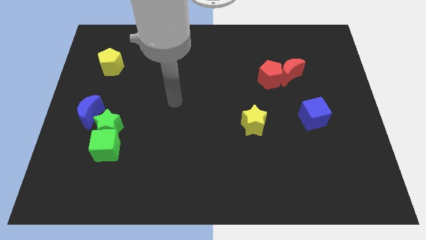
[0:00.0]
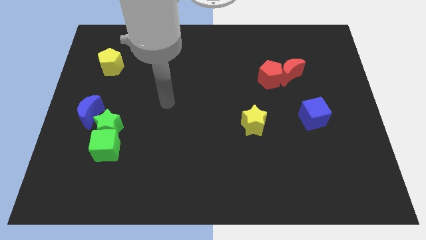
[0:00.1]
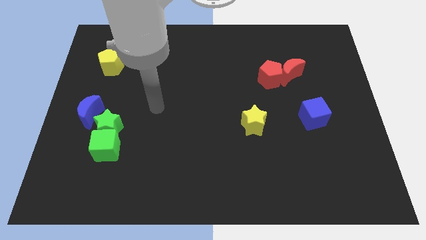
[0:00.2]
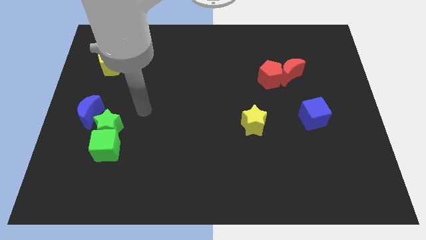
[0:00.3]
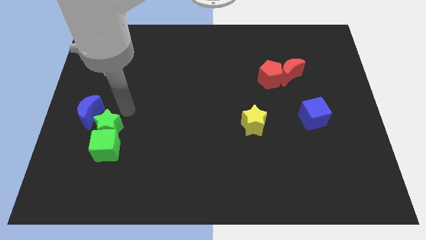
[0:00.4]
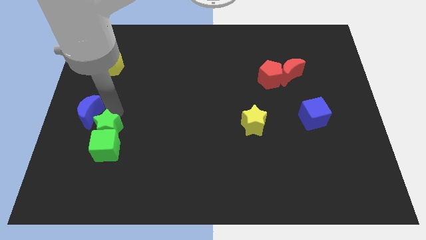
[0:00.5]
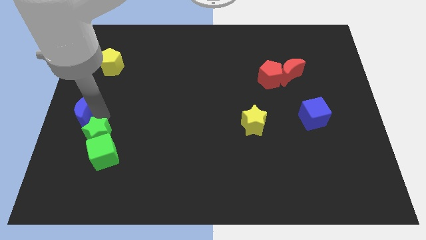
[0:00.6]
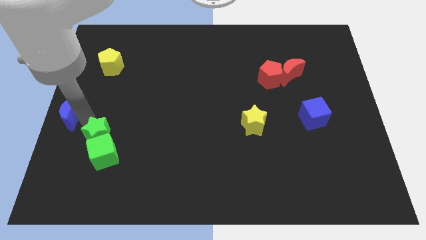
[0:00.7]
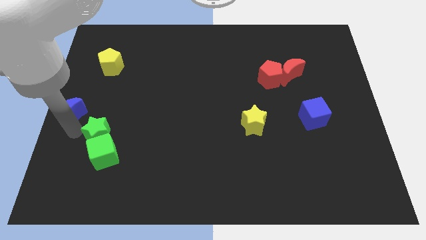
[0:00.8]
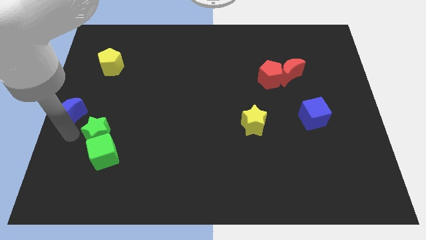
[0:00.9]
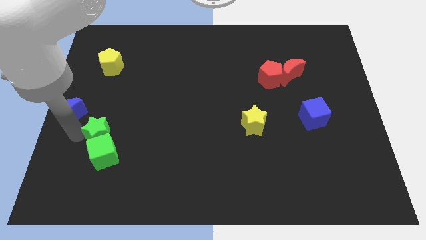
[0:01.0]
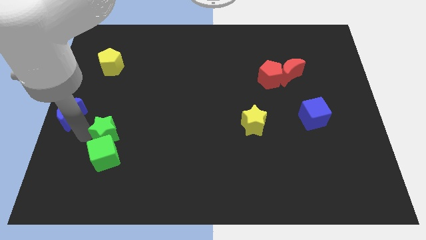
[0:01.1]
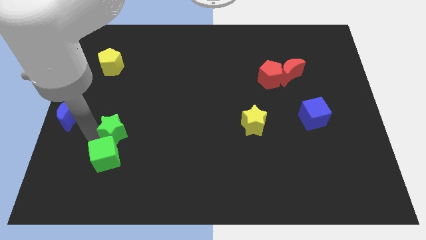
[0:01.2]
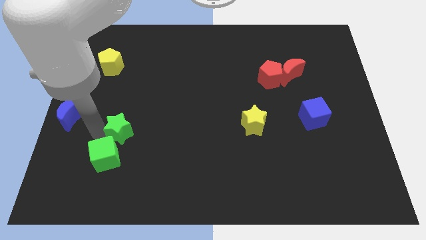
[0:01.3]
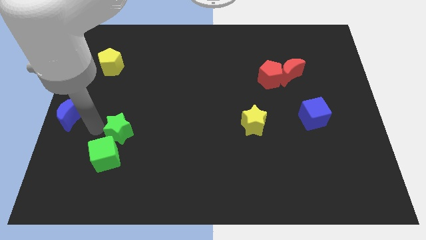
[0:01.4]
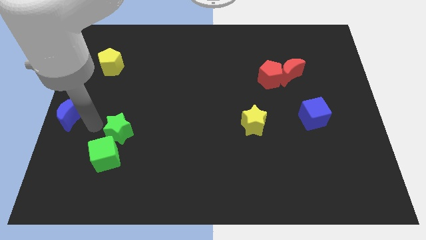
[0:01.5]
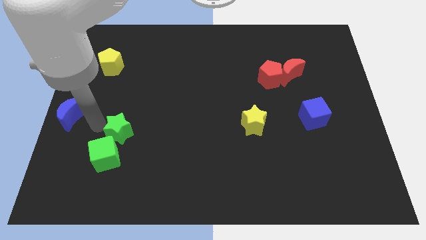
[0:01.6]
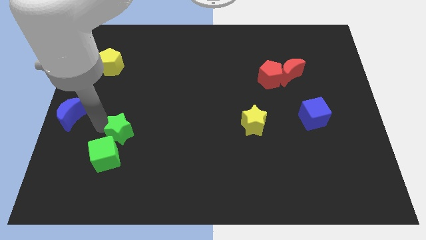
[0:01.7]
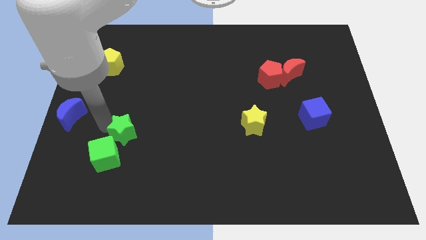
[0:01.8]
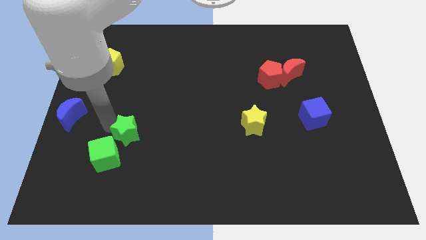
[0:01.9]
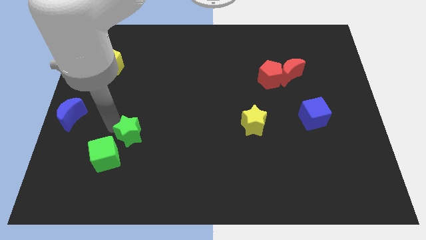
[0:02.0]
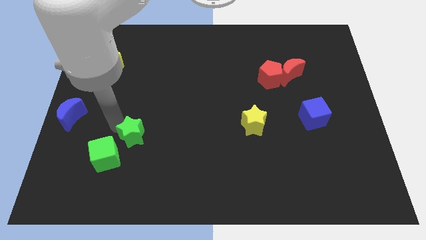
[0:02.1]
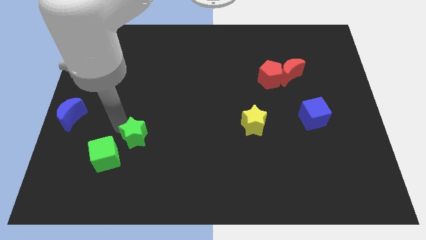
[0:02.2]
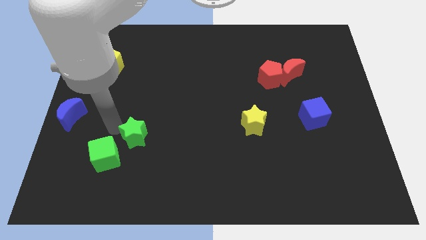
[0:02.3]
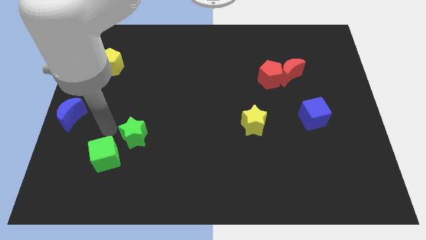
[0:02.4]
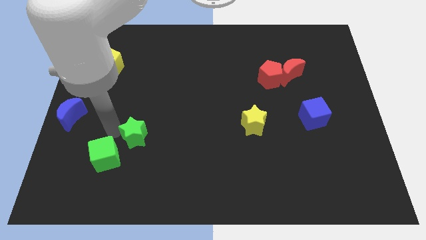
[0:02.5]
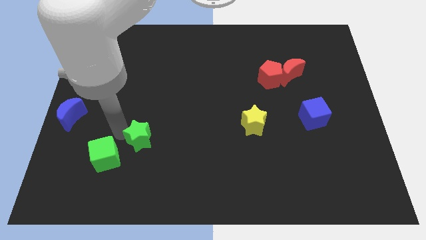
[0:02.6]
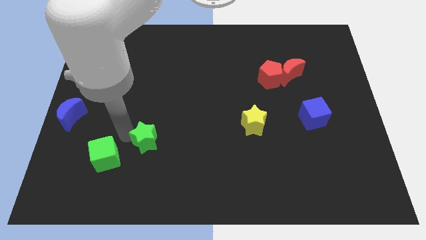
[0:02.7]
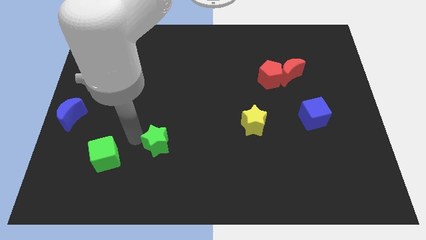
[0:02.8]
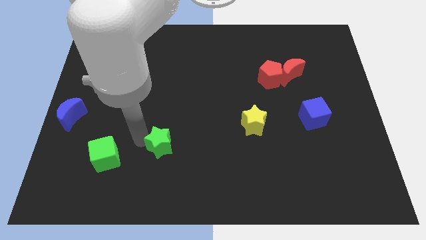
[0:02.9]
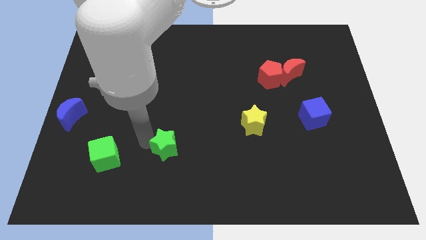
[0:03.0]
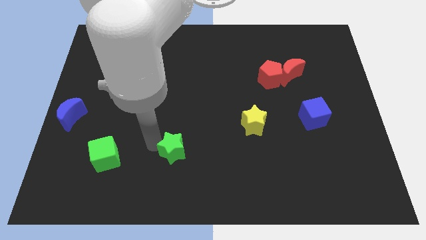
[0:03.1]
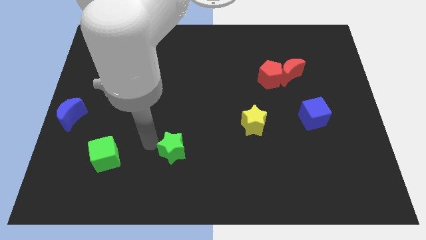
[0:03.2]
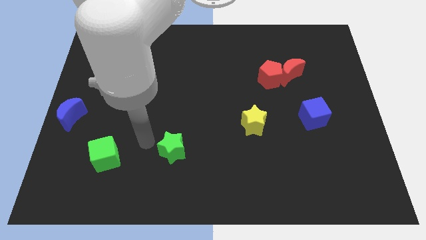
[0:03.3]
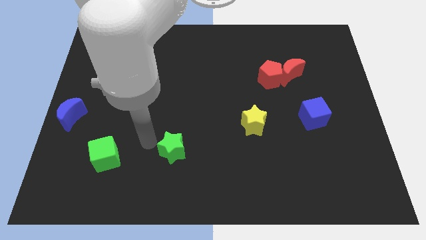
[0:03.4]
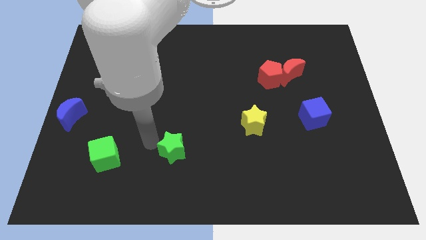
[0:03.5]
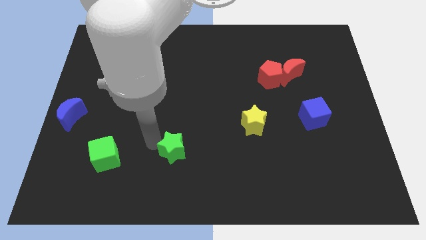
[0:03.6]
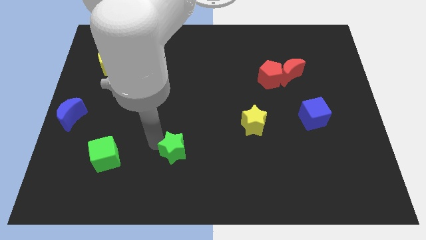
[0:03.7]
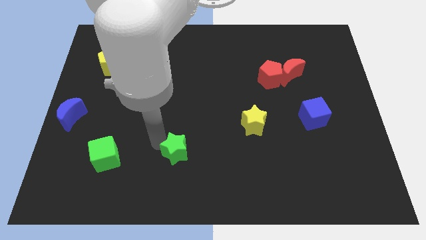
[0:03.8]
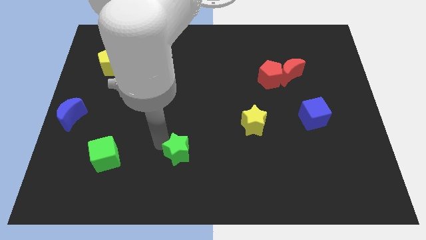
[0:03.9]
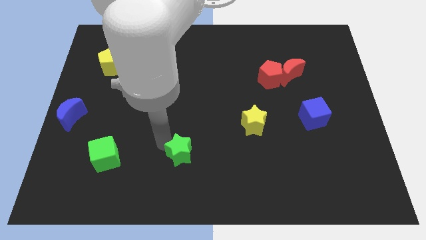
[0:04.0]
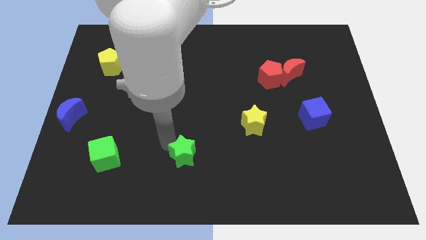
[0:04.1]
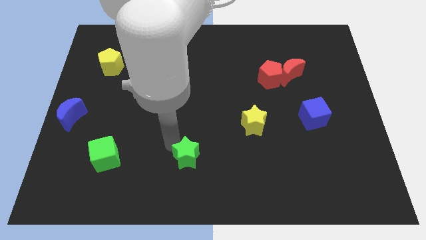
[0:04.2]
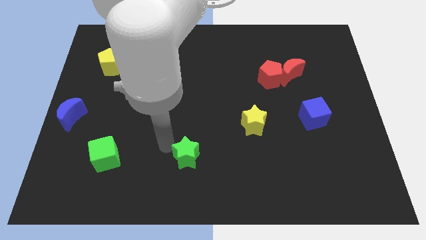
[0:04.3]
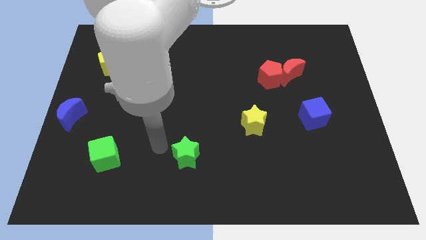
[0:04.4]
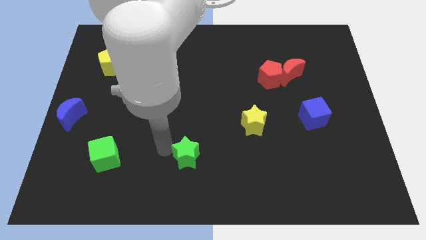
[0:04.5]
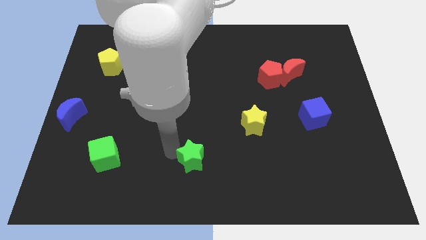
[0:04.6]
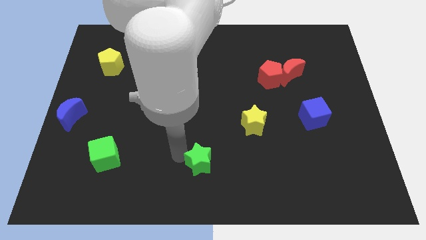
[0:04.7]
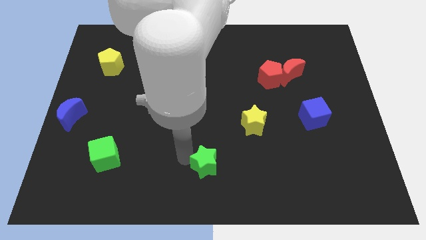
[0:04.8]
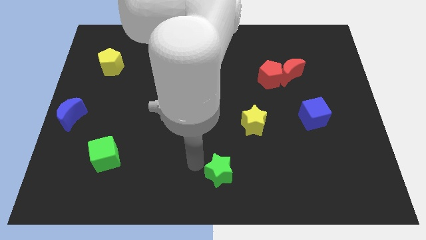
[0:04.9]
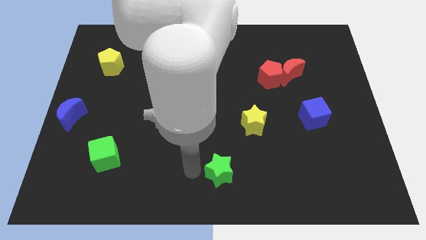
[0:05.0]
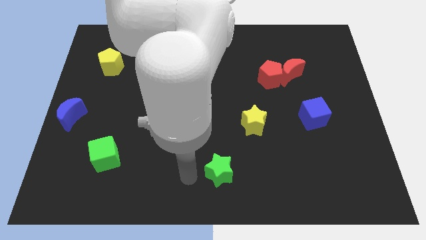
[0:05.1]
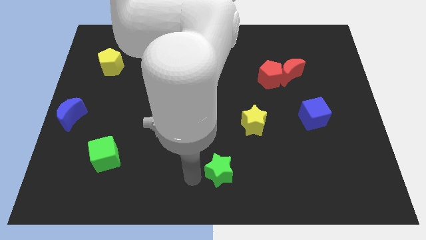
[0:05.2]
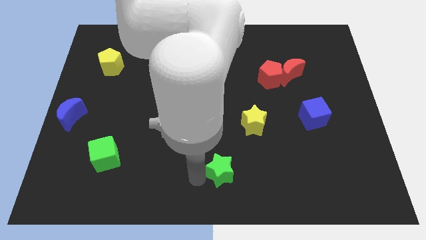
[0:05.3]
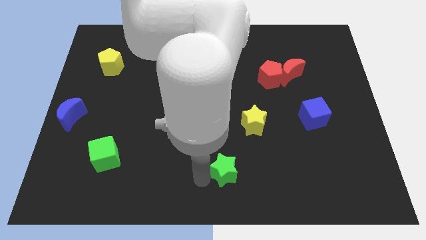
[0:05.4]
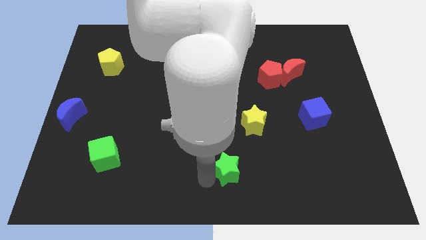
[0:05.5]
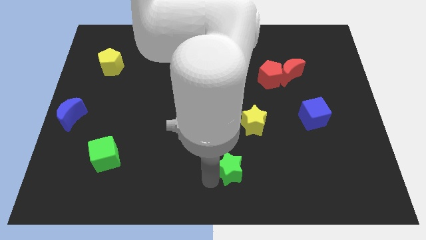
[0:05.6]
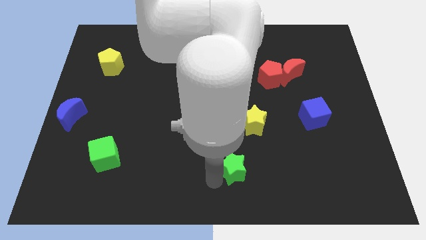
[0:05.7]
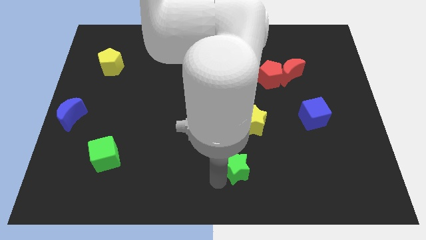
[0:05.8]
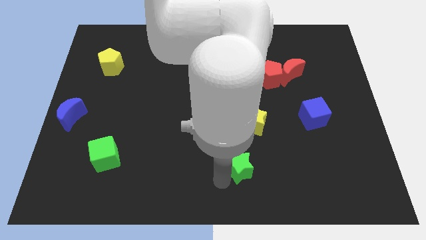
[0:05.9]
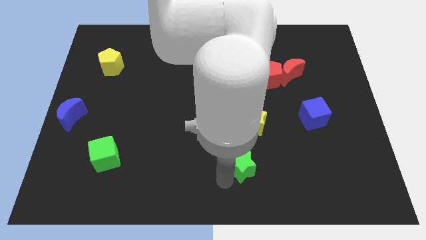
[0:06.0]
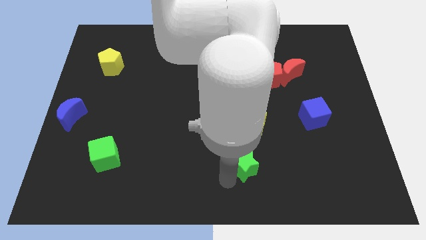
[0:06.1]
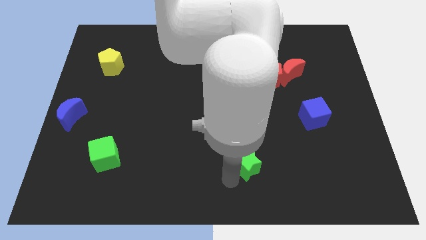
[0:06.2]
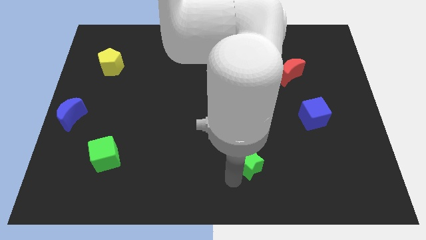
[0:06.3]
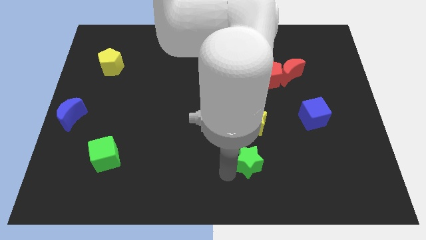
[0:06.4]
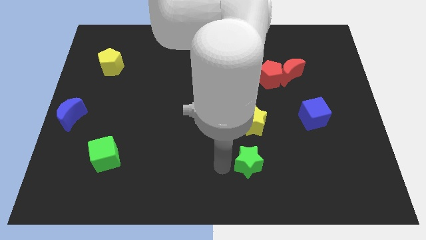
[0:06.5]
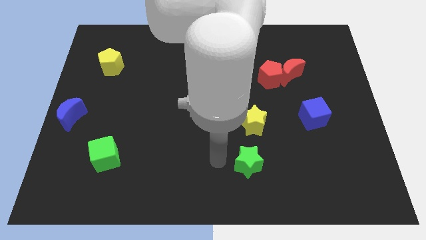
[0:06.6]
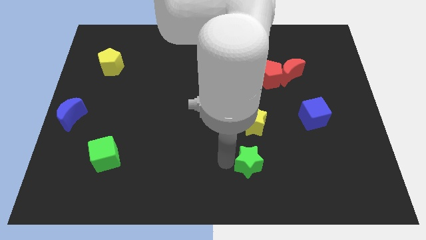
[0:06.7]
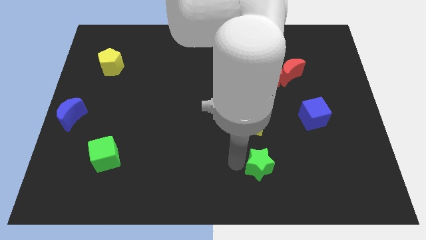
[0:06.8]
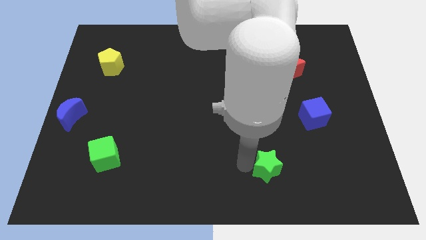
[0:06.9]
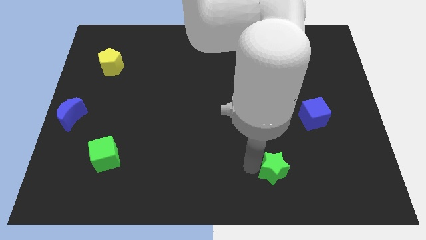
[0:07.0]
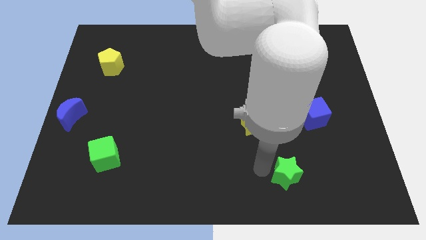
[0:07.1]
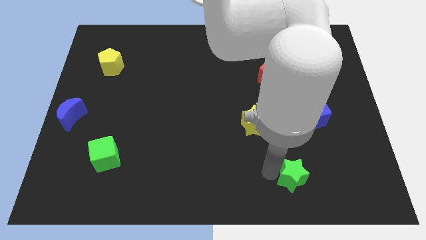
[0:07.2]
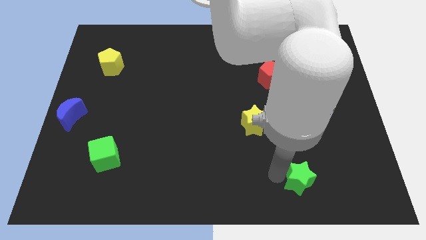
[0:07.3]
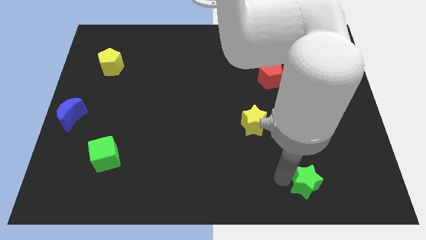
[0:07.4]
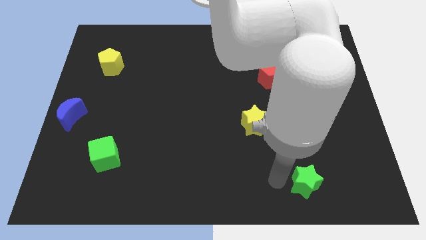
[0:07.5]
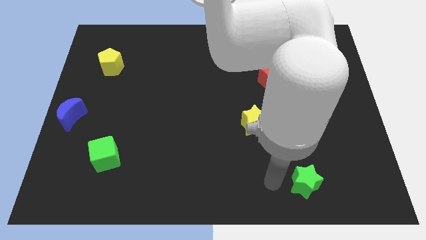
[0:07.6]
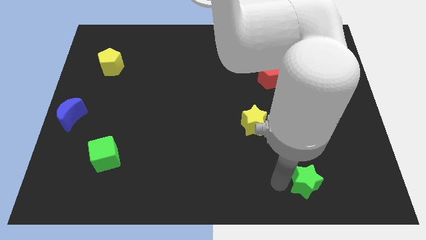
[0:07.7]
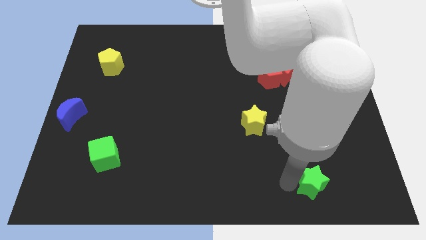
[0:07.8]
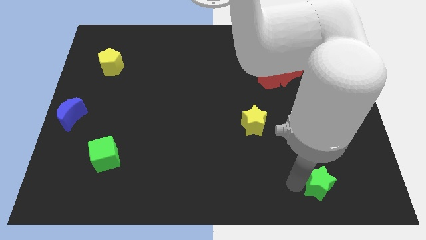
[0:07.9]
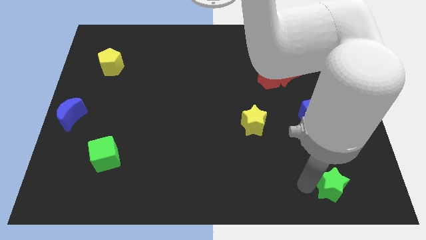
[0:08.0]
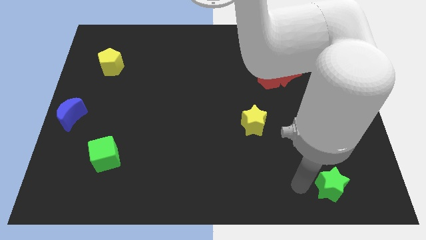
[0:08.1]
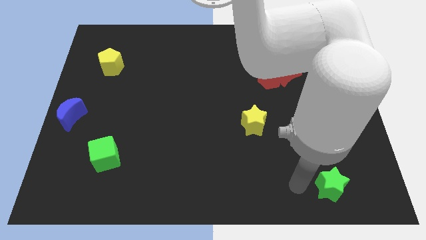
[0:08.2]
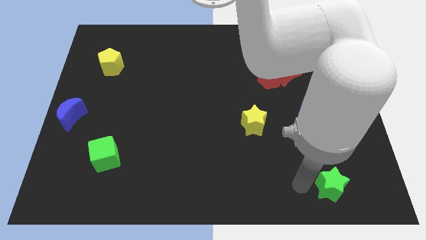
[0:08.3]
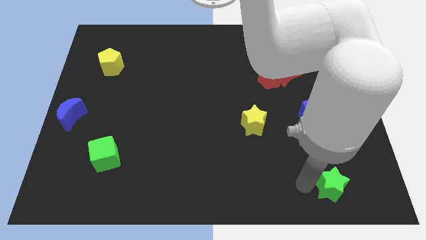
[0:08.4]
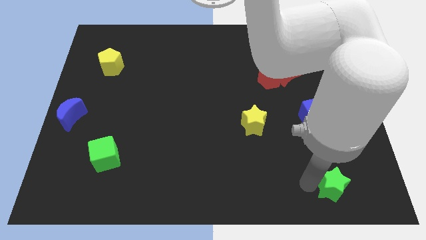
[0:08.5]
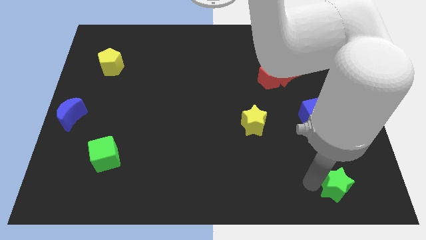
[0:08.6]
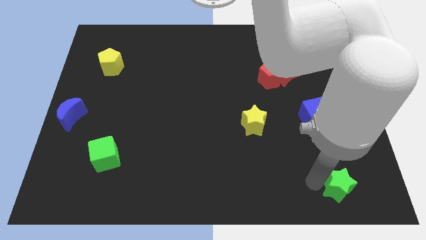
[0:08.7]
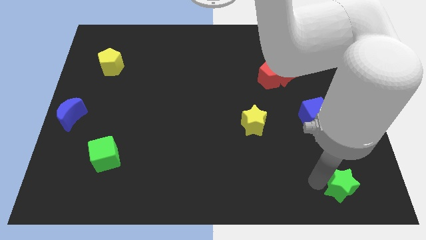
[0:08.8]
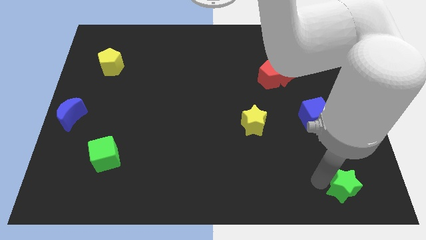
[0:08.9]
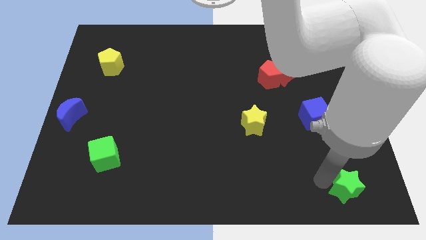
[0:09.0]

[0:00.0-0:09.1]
put the green star to the bottom right
